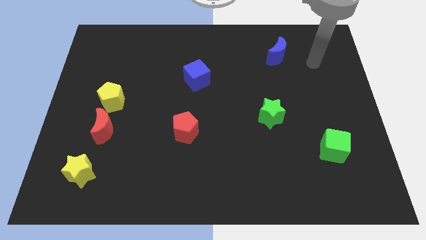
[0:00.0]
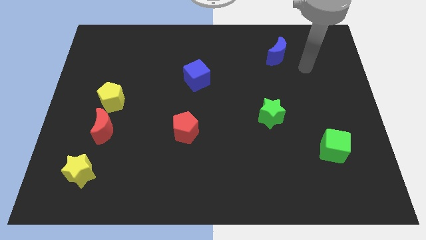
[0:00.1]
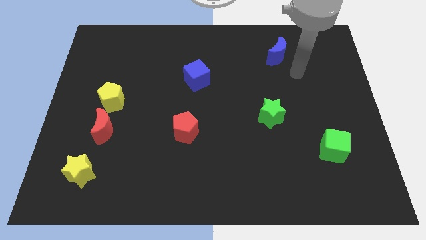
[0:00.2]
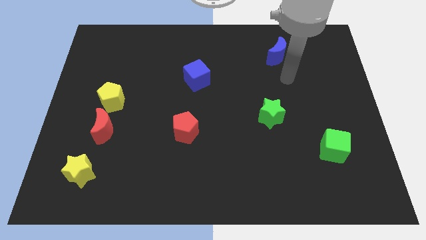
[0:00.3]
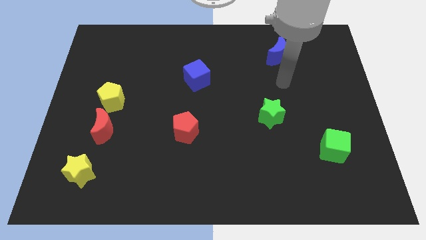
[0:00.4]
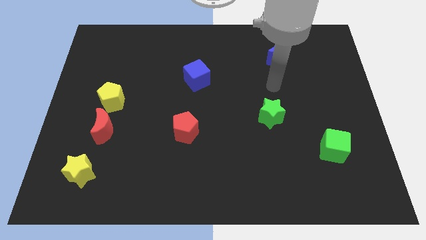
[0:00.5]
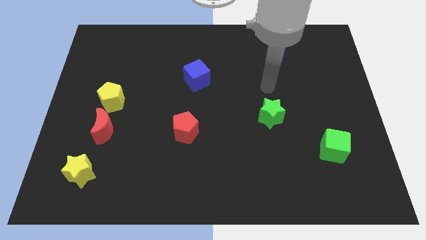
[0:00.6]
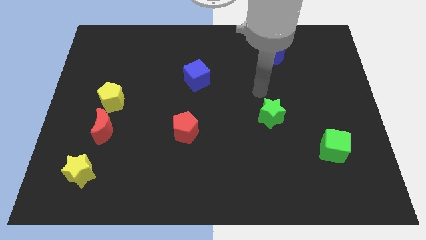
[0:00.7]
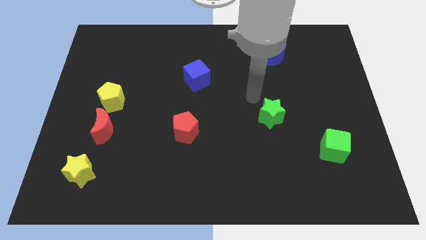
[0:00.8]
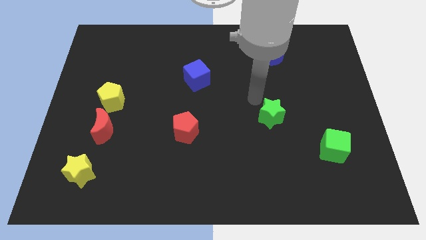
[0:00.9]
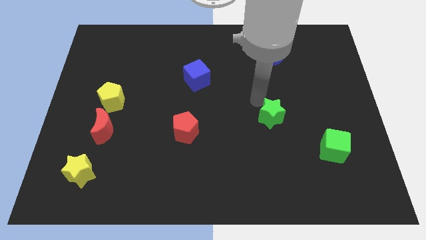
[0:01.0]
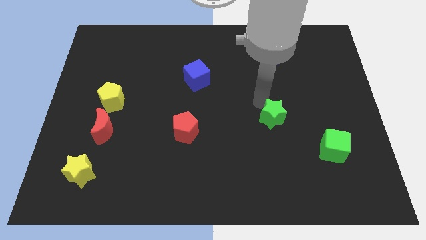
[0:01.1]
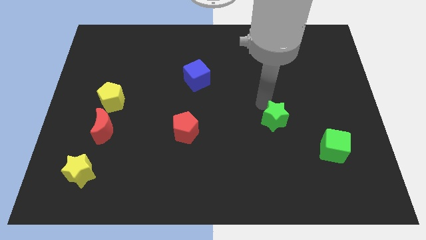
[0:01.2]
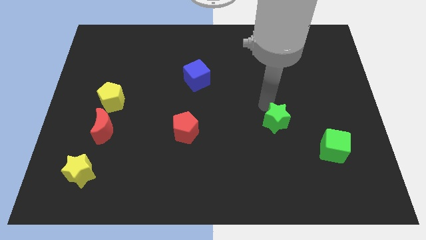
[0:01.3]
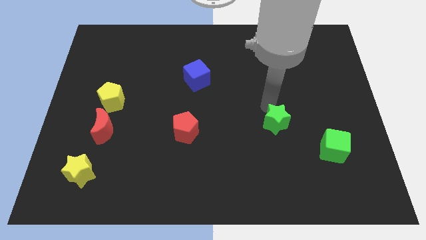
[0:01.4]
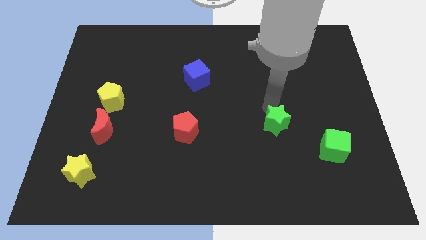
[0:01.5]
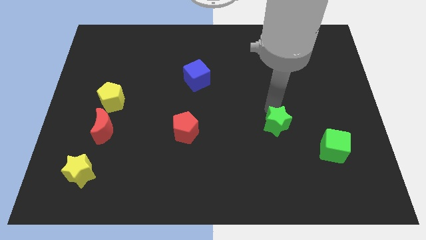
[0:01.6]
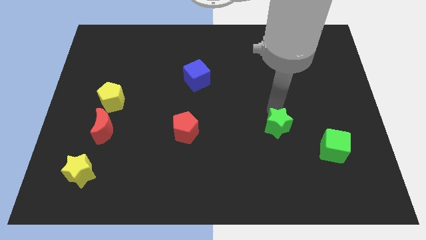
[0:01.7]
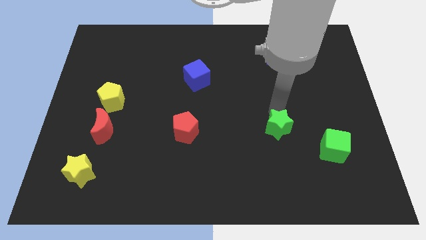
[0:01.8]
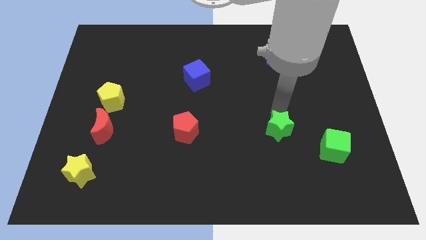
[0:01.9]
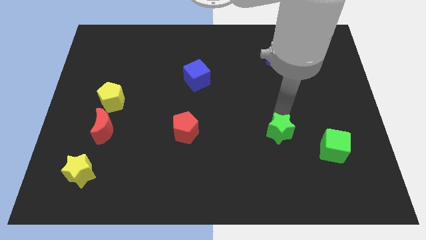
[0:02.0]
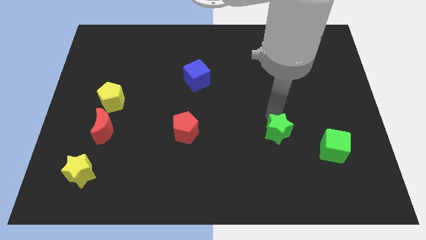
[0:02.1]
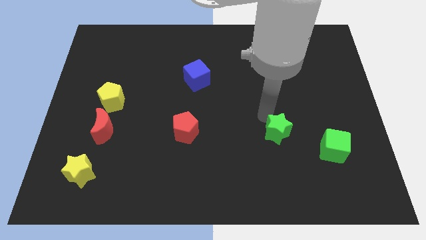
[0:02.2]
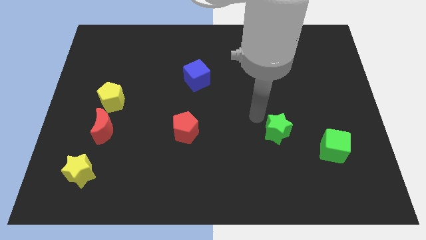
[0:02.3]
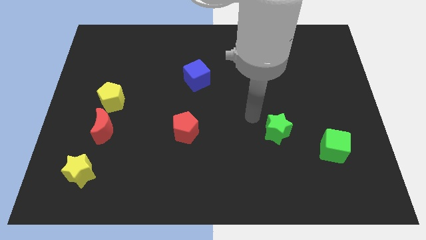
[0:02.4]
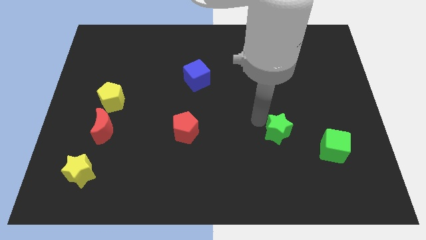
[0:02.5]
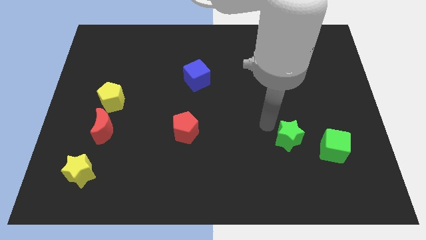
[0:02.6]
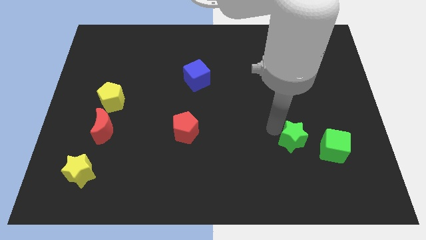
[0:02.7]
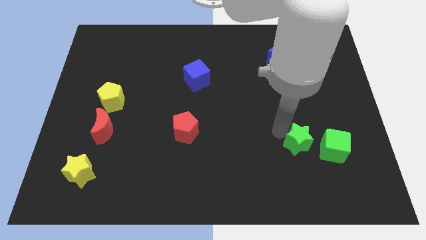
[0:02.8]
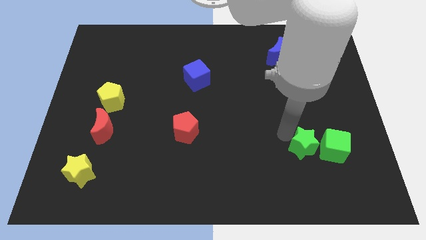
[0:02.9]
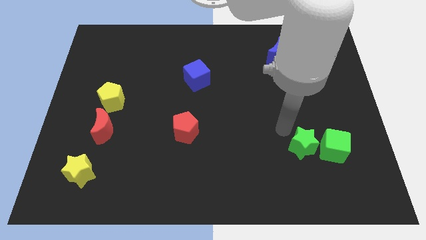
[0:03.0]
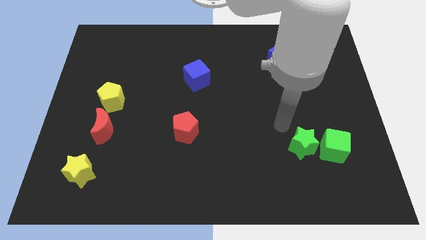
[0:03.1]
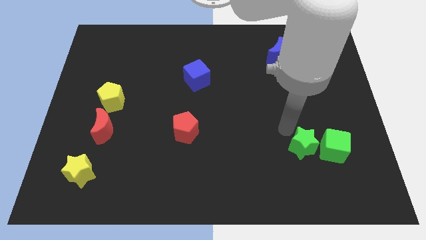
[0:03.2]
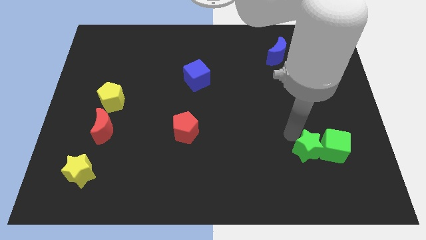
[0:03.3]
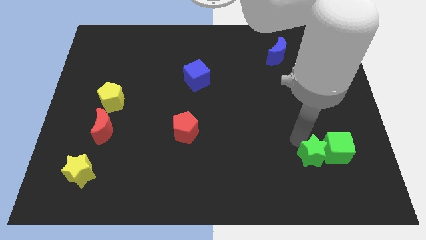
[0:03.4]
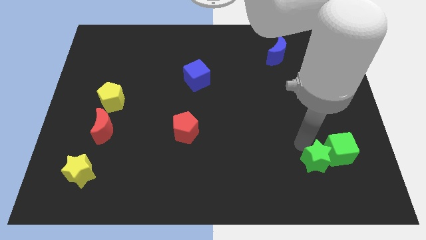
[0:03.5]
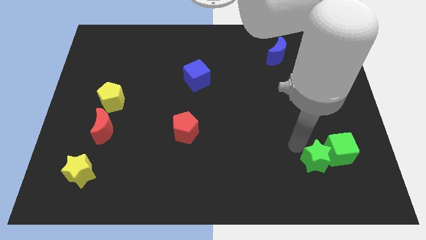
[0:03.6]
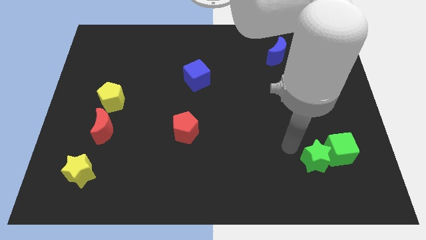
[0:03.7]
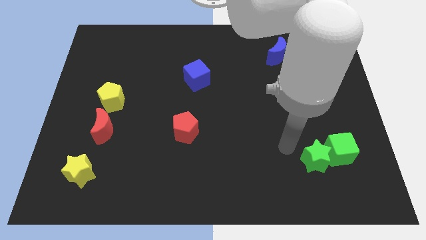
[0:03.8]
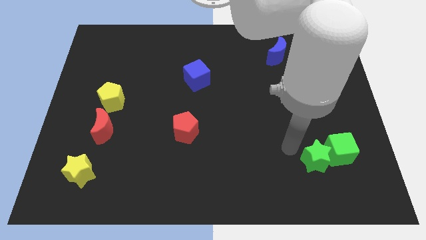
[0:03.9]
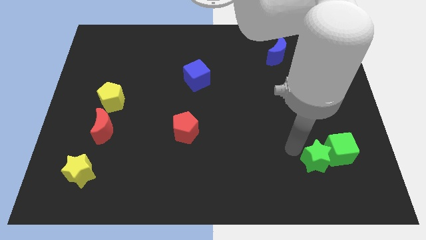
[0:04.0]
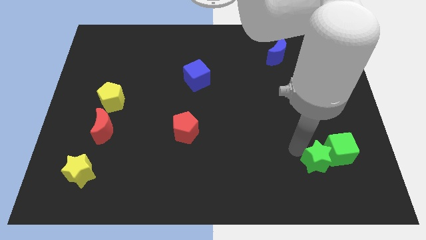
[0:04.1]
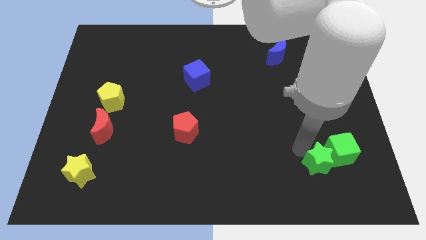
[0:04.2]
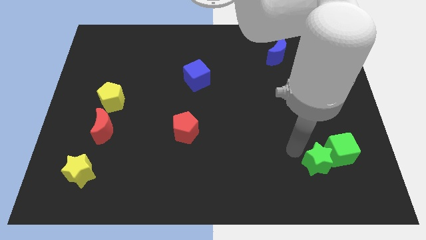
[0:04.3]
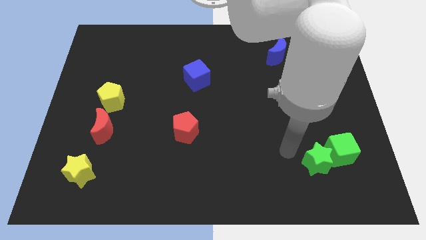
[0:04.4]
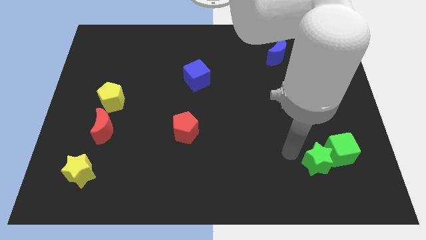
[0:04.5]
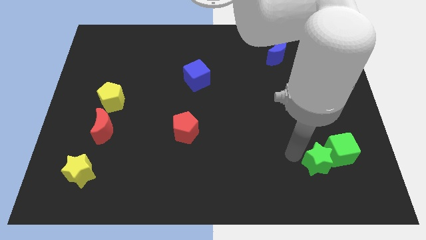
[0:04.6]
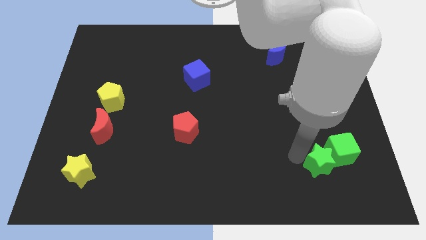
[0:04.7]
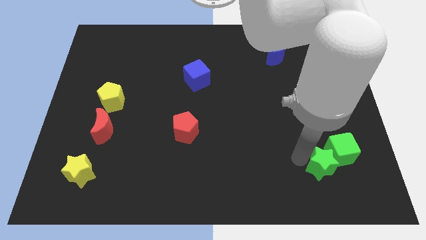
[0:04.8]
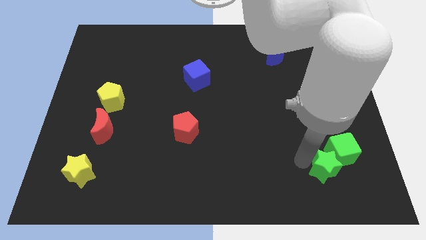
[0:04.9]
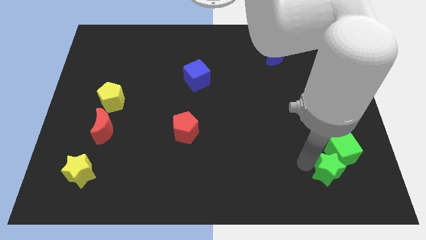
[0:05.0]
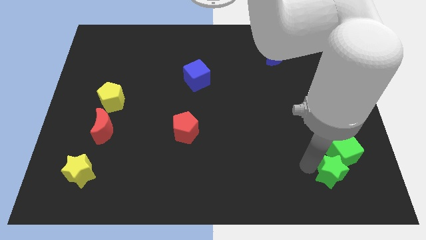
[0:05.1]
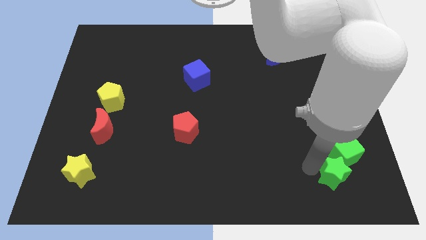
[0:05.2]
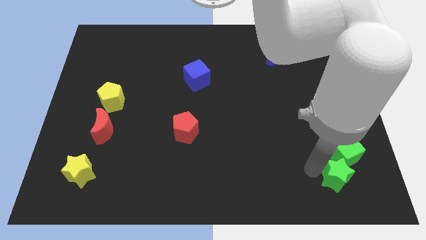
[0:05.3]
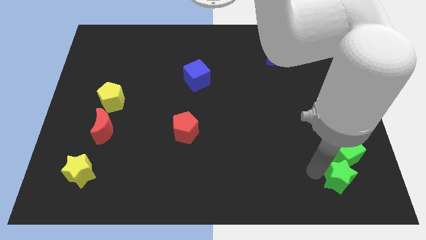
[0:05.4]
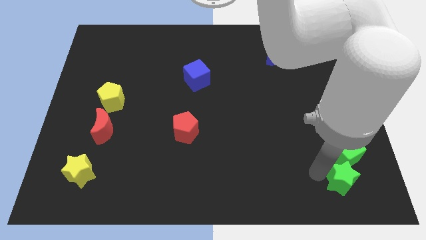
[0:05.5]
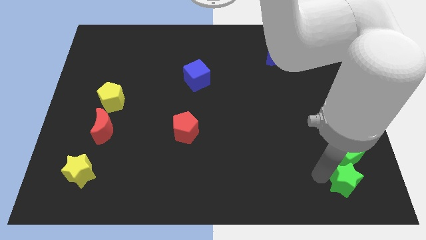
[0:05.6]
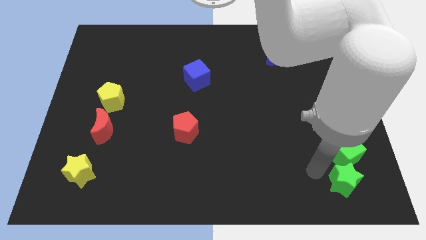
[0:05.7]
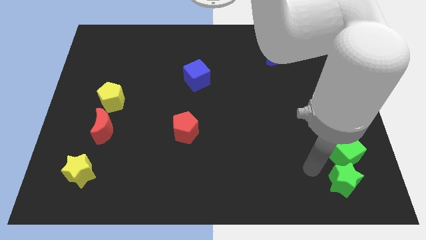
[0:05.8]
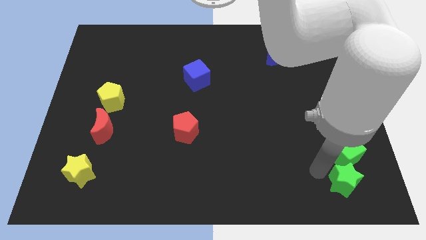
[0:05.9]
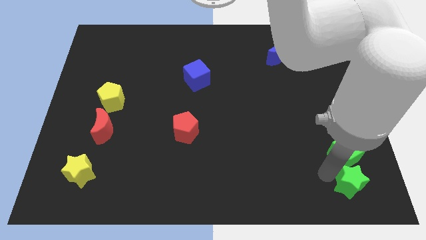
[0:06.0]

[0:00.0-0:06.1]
slide the green star to the bottom right corner

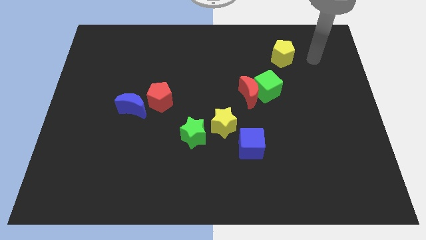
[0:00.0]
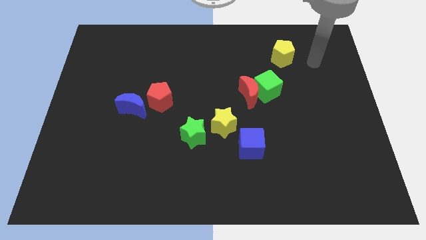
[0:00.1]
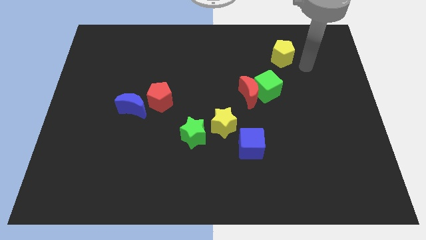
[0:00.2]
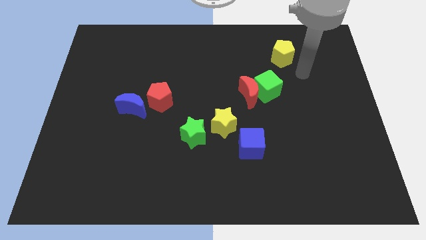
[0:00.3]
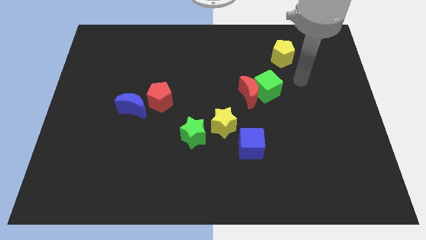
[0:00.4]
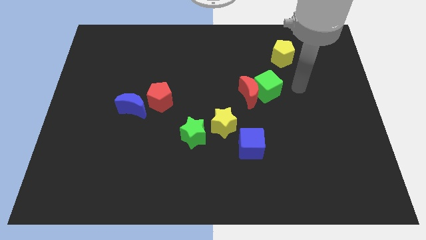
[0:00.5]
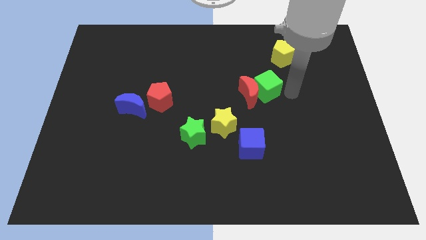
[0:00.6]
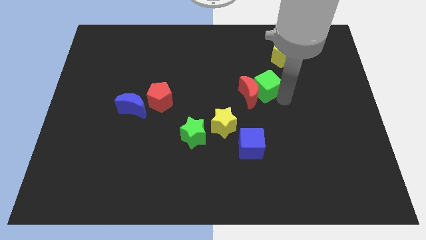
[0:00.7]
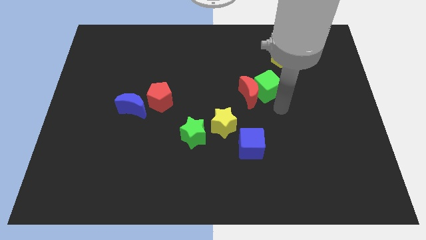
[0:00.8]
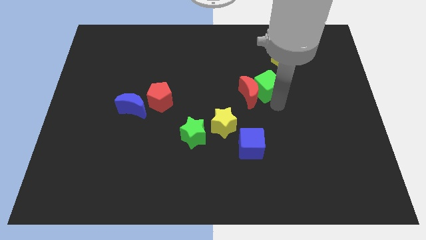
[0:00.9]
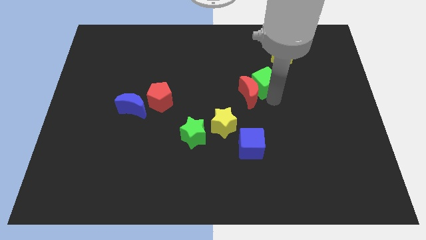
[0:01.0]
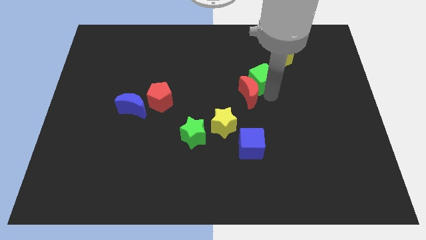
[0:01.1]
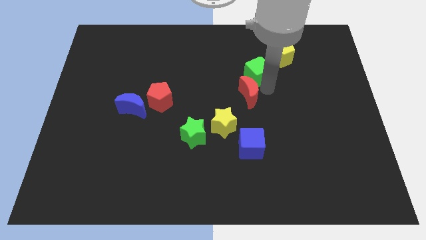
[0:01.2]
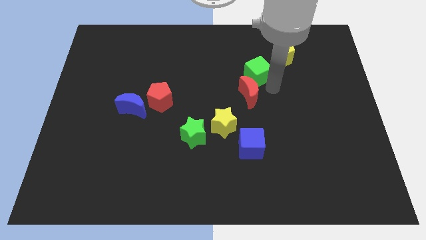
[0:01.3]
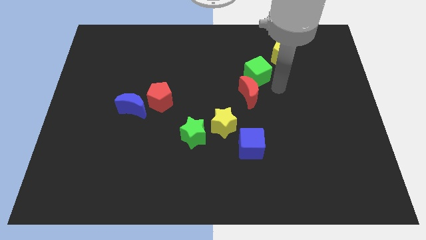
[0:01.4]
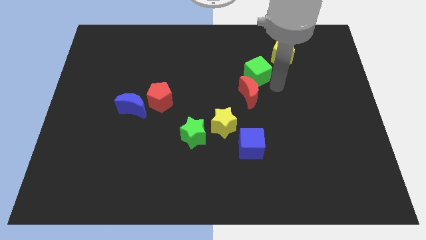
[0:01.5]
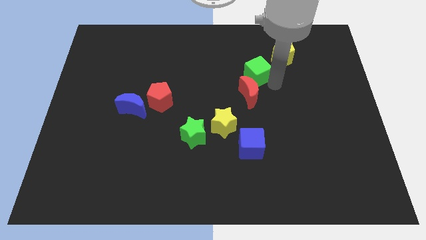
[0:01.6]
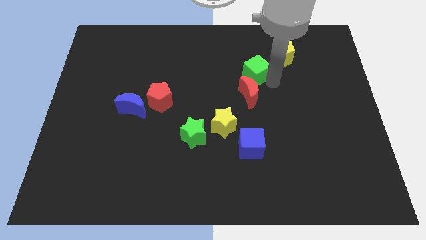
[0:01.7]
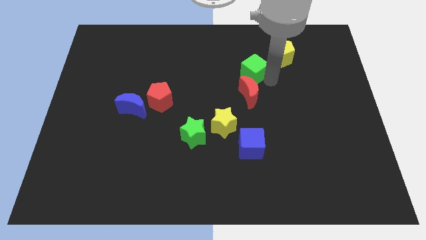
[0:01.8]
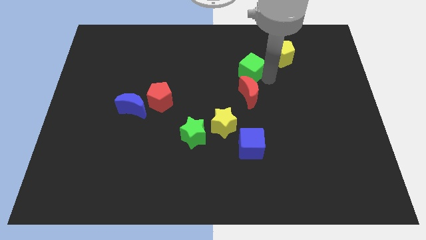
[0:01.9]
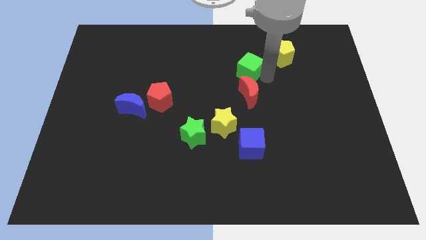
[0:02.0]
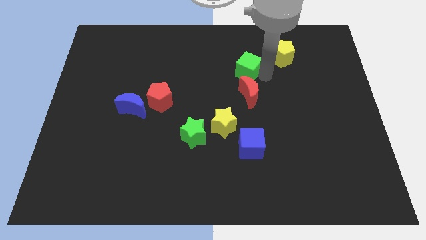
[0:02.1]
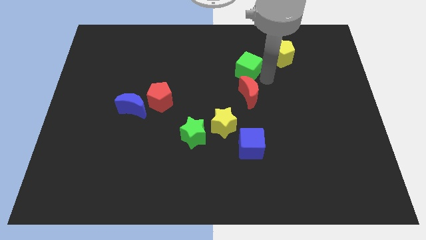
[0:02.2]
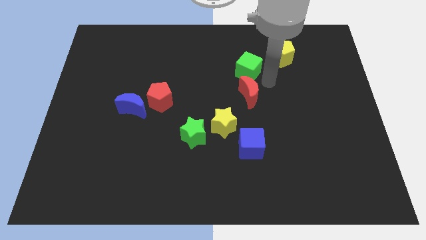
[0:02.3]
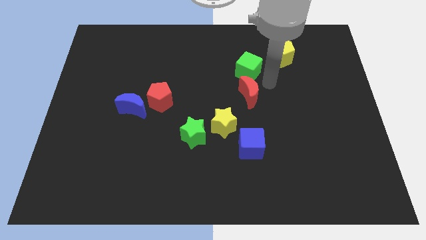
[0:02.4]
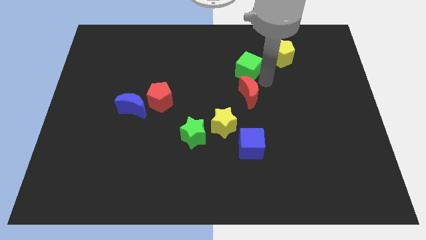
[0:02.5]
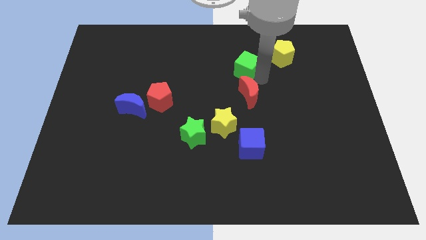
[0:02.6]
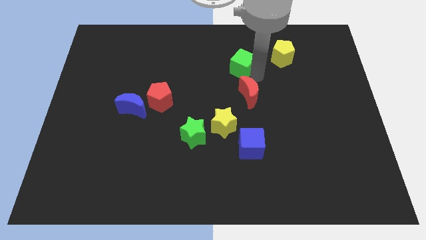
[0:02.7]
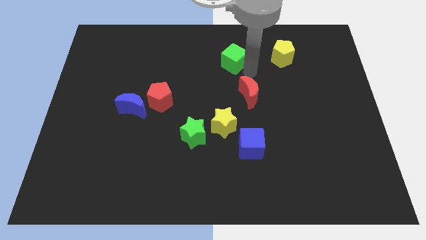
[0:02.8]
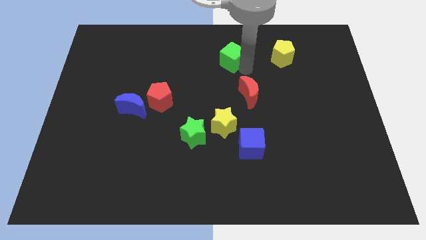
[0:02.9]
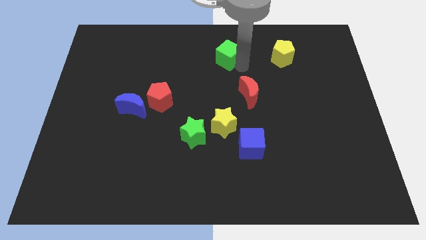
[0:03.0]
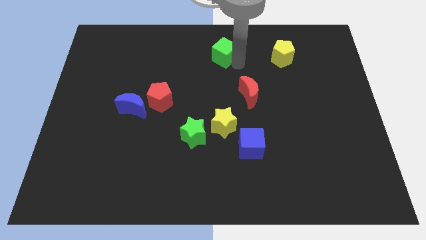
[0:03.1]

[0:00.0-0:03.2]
push the green cube to the towards your base
